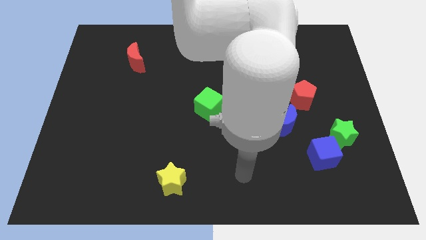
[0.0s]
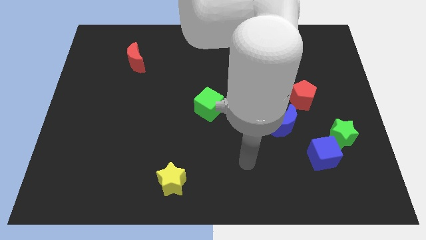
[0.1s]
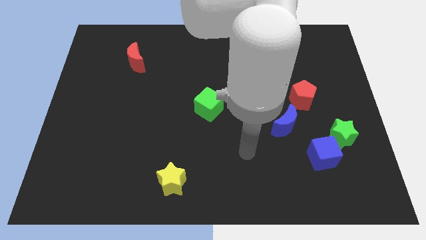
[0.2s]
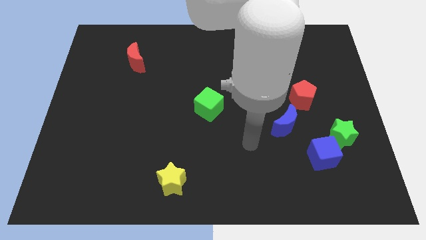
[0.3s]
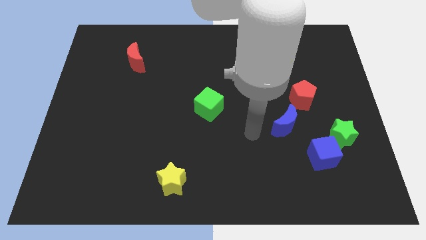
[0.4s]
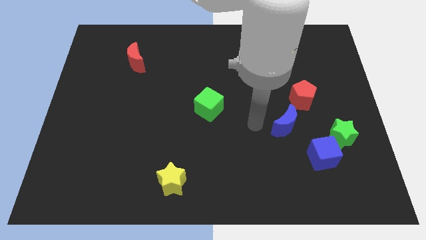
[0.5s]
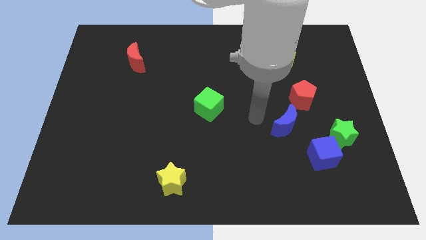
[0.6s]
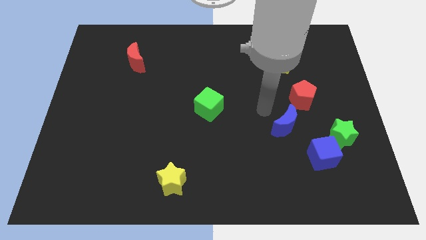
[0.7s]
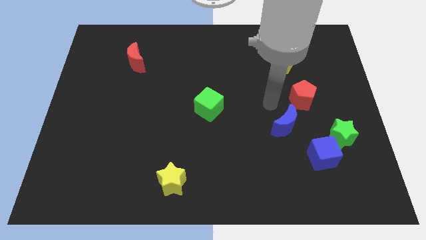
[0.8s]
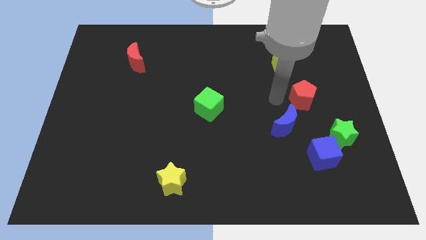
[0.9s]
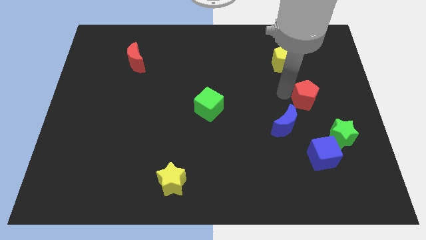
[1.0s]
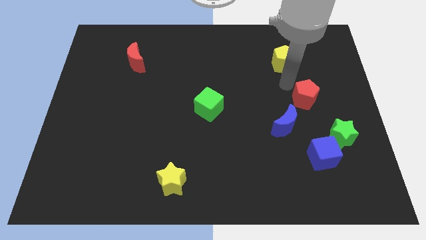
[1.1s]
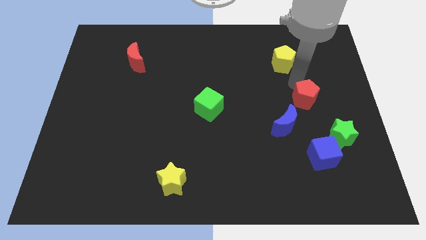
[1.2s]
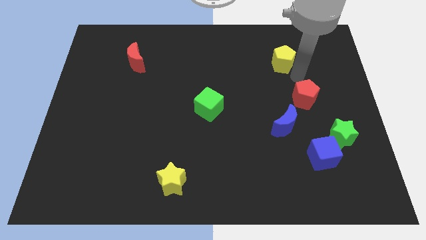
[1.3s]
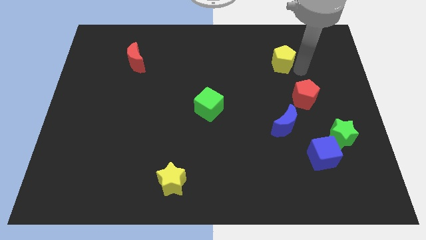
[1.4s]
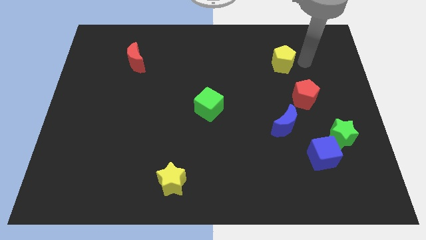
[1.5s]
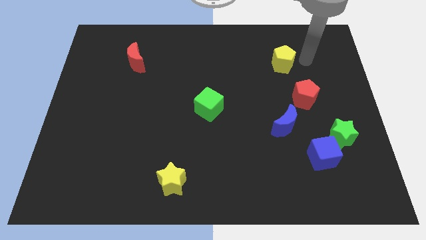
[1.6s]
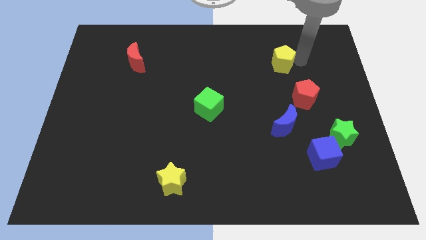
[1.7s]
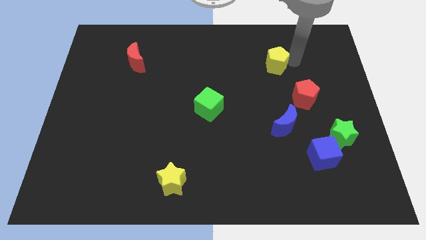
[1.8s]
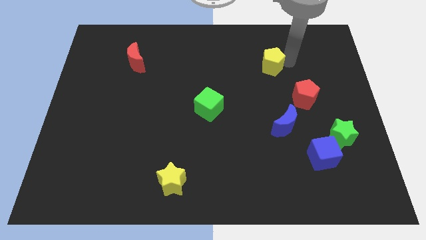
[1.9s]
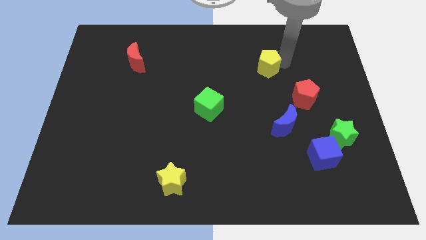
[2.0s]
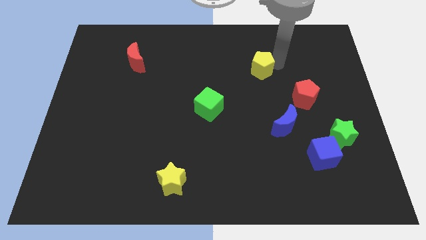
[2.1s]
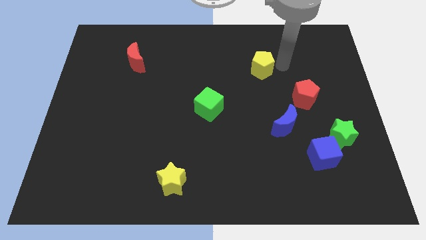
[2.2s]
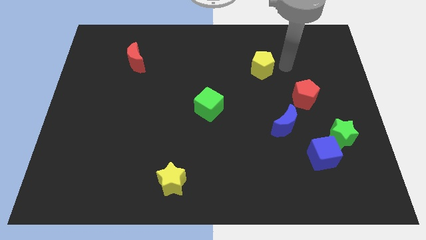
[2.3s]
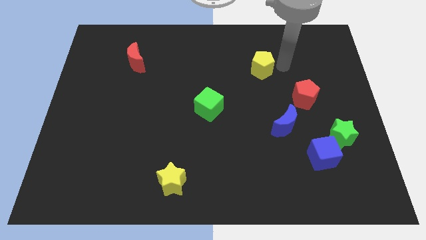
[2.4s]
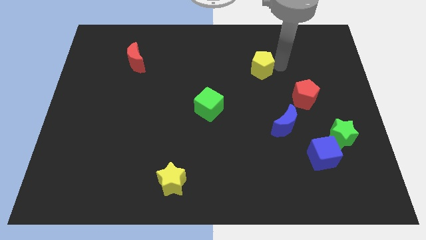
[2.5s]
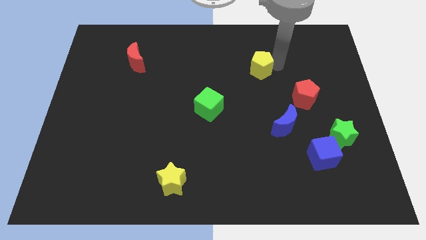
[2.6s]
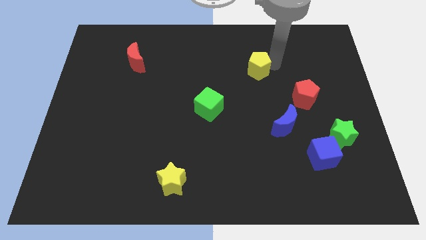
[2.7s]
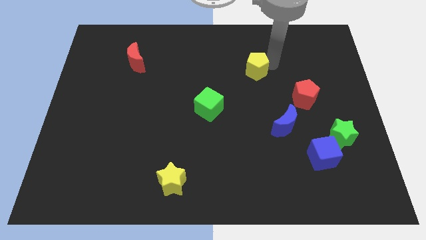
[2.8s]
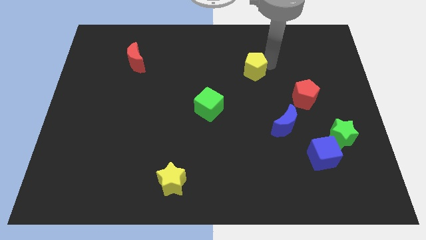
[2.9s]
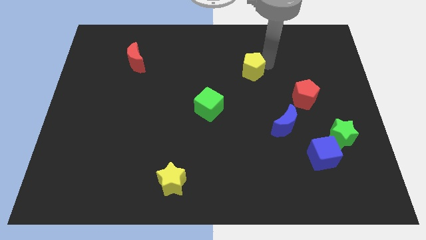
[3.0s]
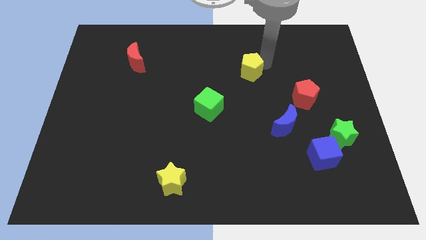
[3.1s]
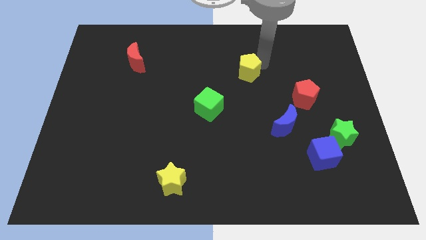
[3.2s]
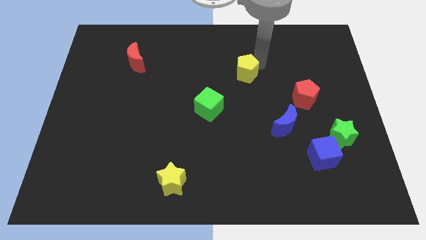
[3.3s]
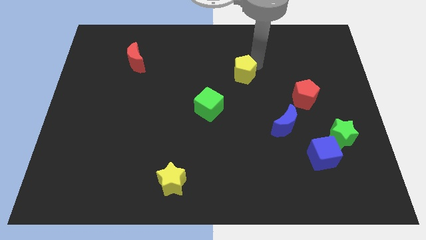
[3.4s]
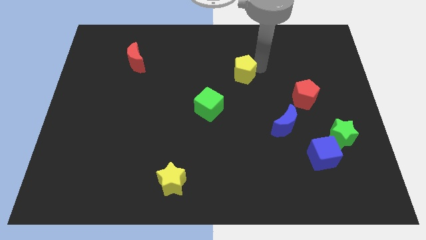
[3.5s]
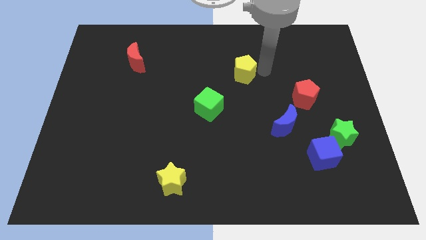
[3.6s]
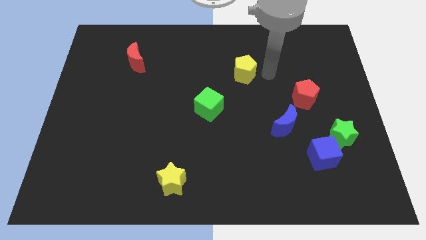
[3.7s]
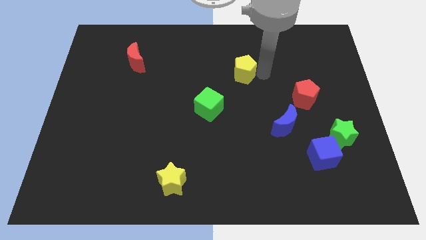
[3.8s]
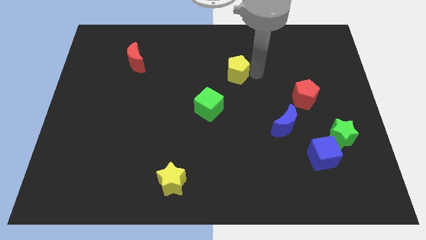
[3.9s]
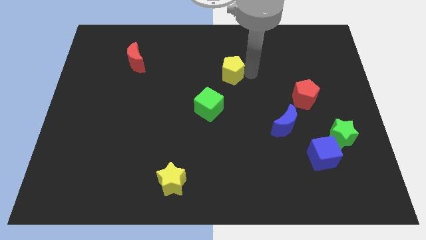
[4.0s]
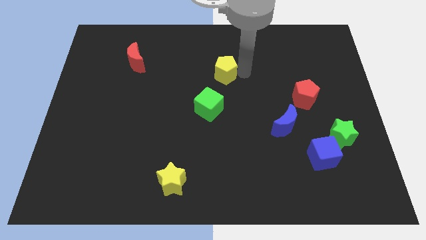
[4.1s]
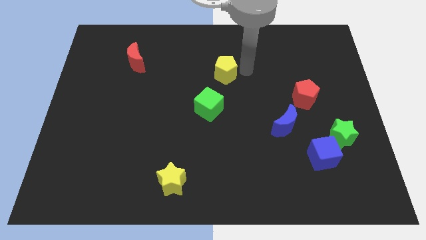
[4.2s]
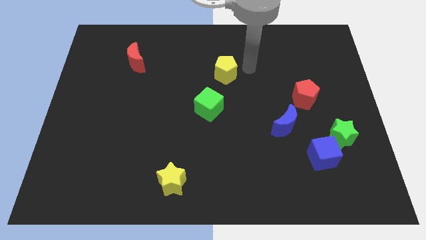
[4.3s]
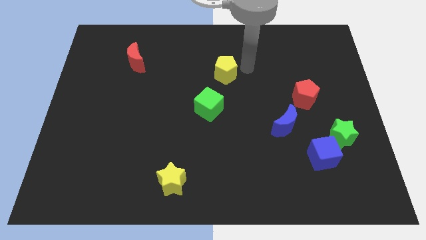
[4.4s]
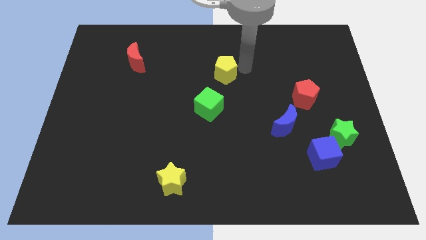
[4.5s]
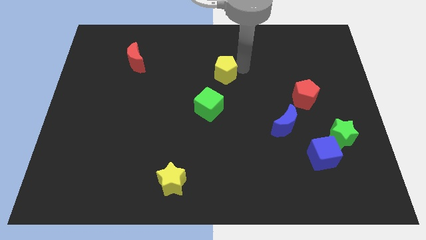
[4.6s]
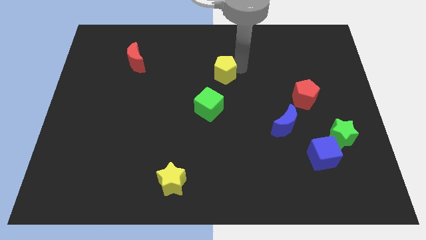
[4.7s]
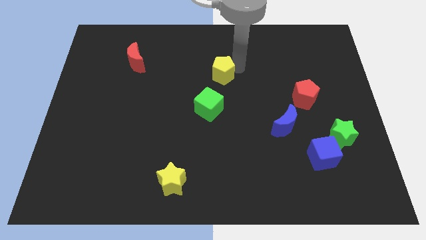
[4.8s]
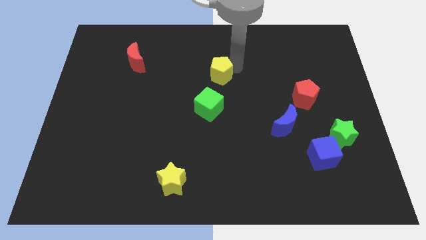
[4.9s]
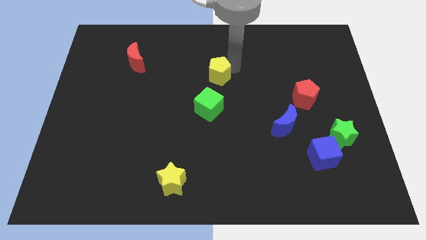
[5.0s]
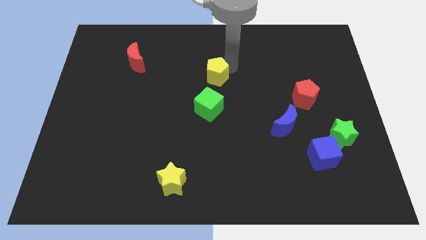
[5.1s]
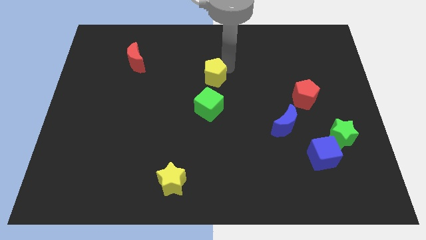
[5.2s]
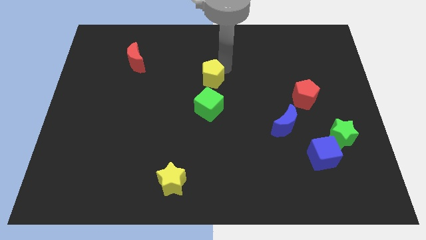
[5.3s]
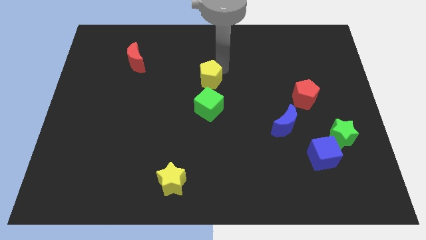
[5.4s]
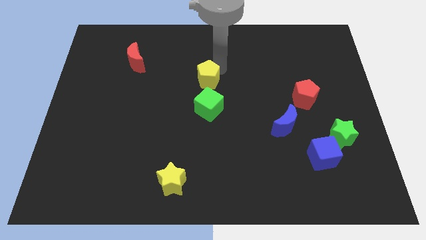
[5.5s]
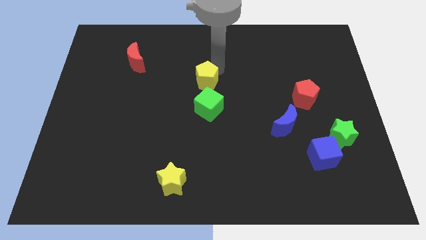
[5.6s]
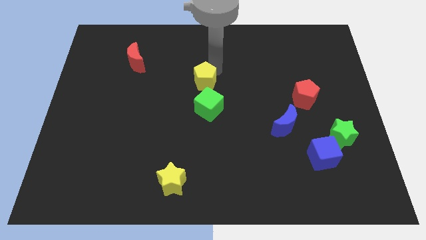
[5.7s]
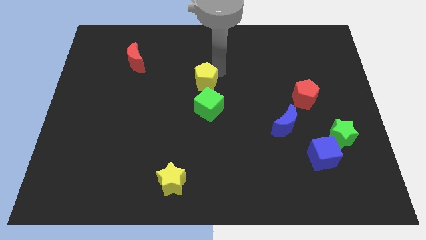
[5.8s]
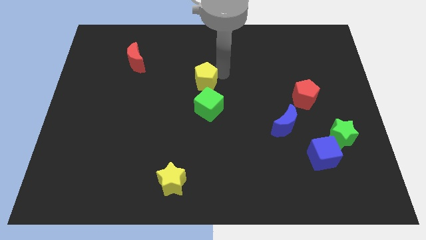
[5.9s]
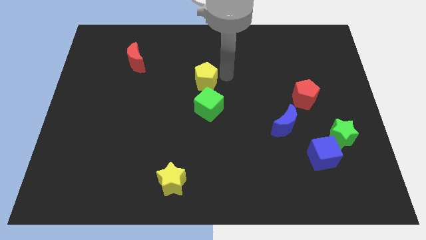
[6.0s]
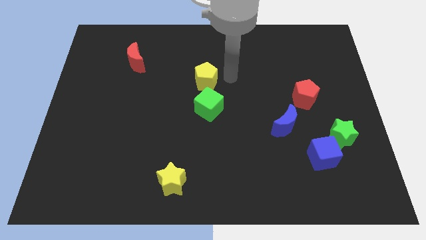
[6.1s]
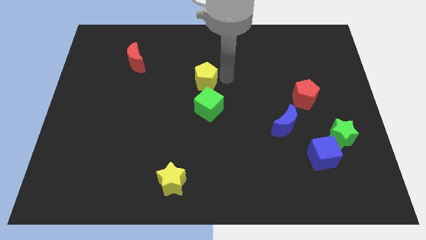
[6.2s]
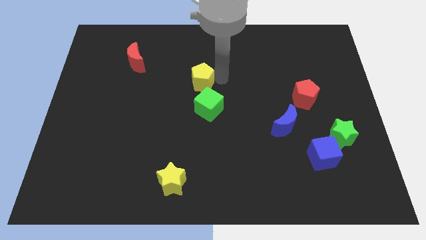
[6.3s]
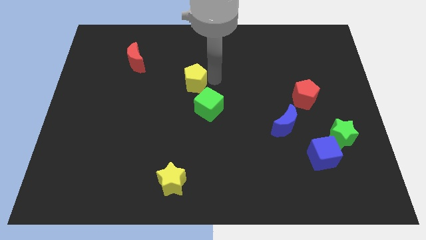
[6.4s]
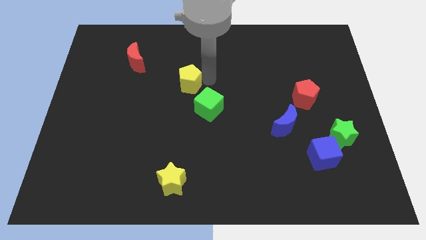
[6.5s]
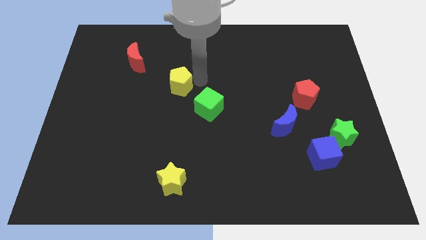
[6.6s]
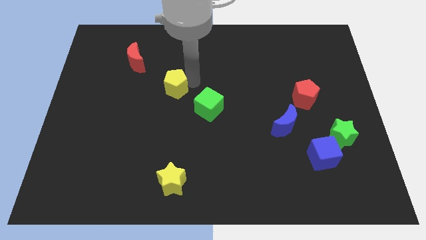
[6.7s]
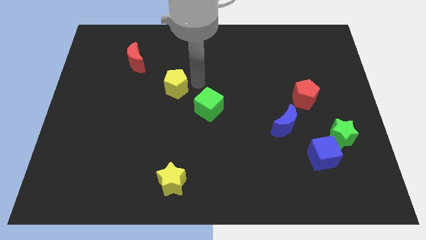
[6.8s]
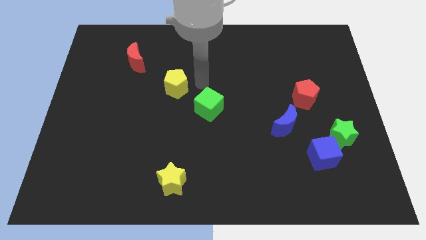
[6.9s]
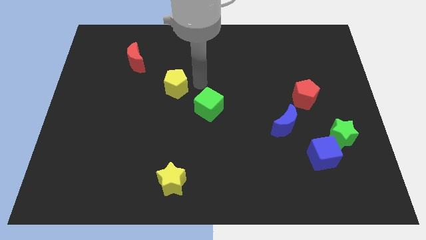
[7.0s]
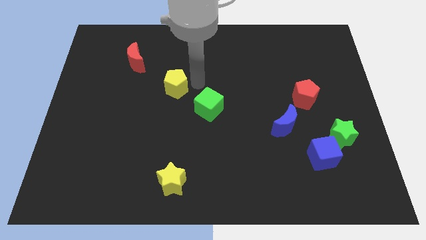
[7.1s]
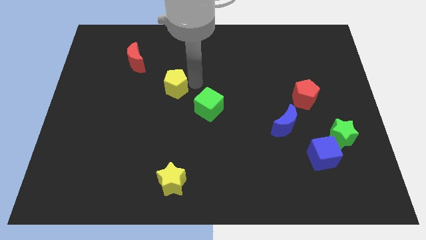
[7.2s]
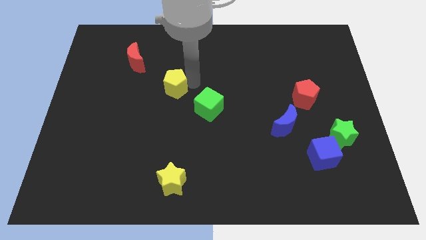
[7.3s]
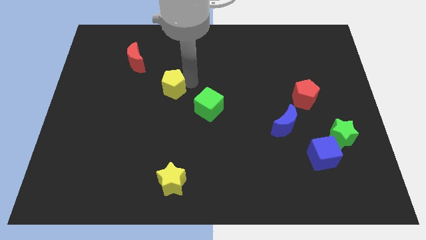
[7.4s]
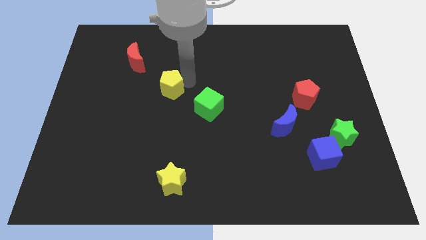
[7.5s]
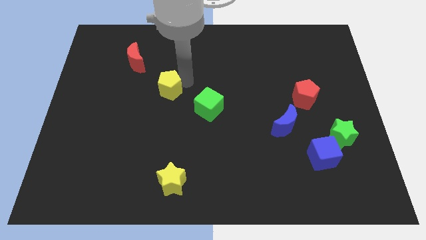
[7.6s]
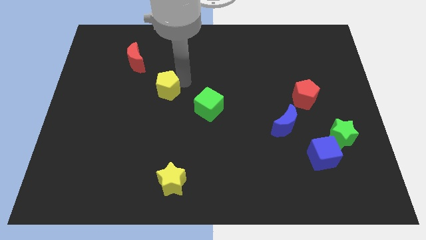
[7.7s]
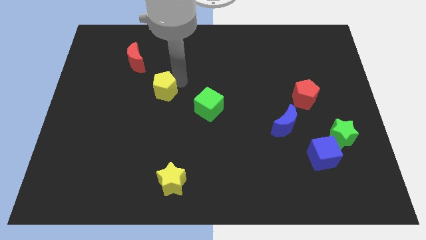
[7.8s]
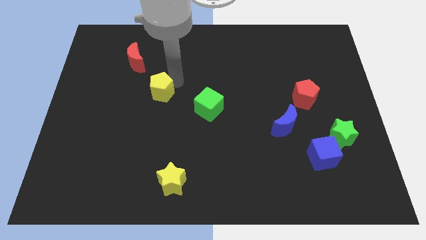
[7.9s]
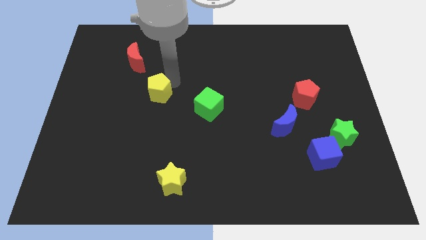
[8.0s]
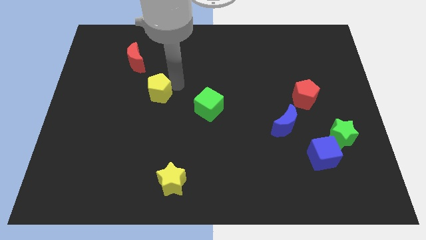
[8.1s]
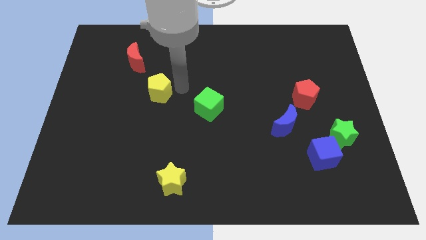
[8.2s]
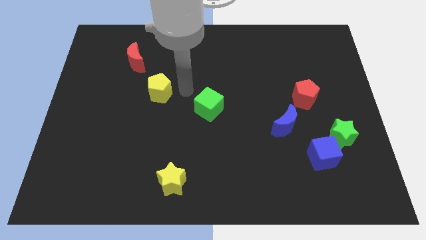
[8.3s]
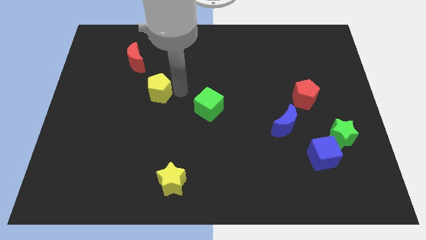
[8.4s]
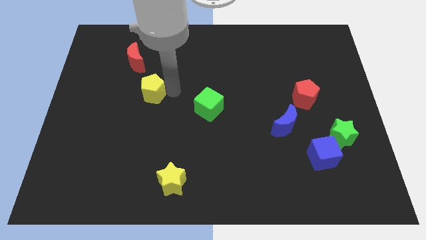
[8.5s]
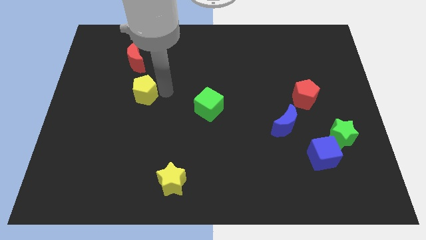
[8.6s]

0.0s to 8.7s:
move the yellow pentagon to the bottom of the red moon
